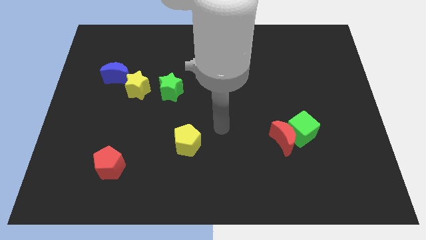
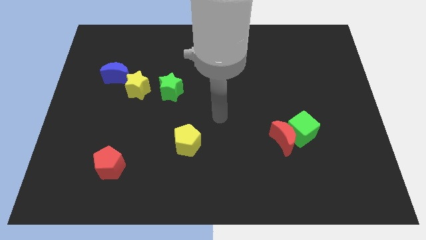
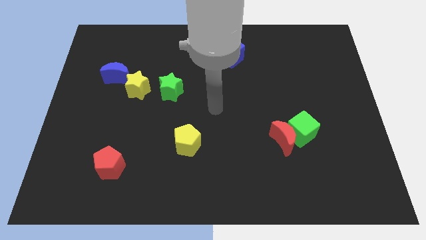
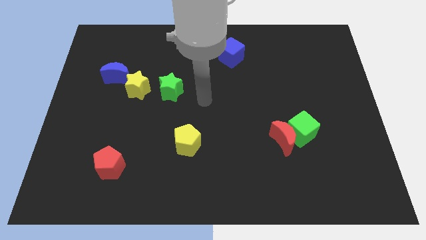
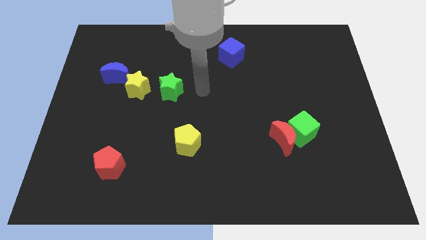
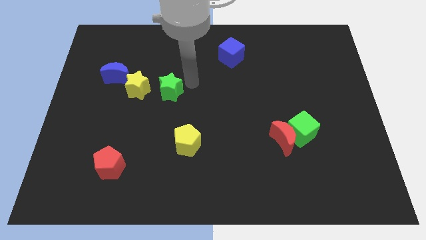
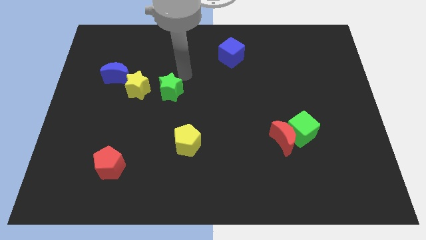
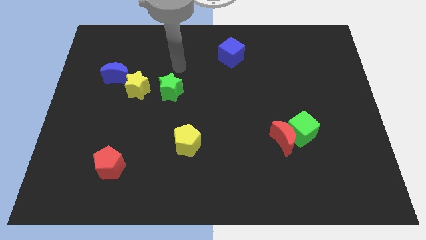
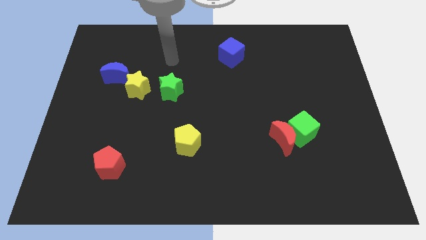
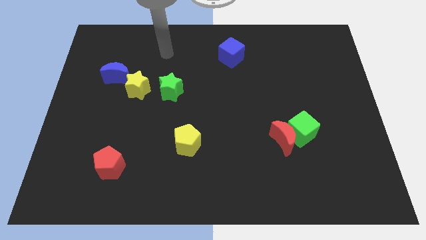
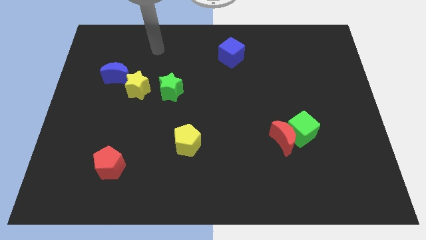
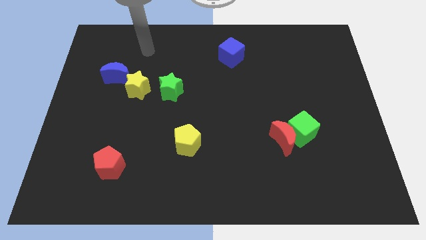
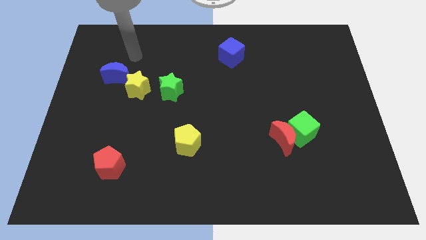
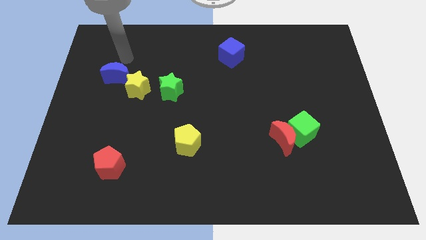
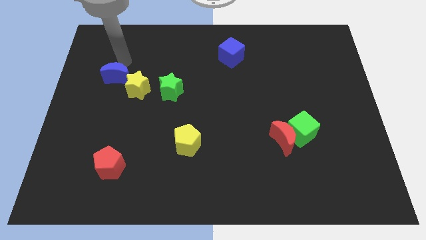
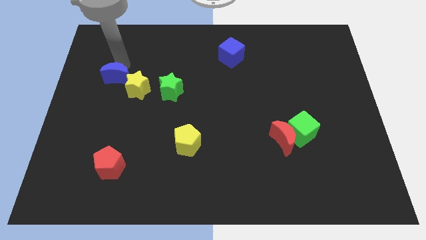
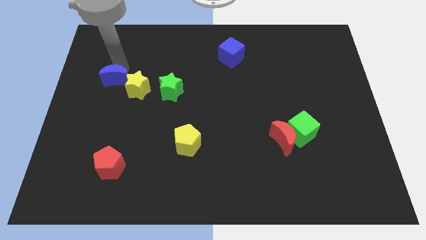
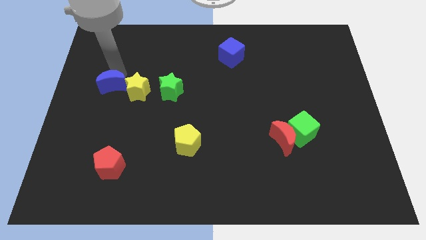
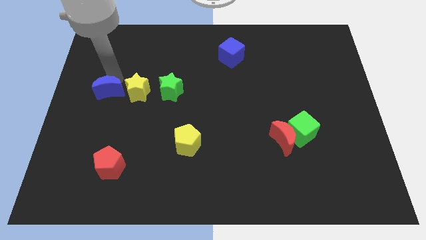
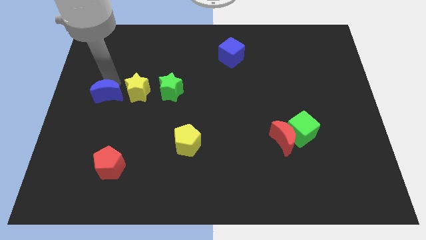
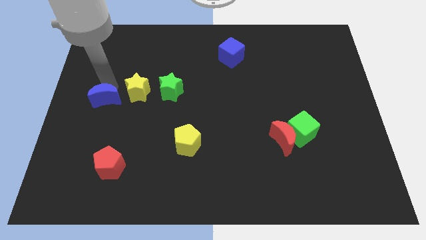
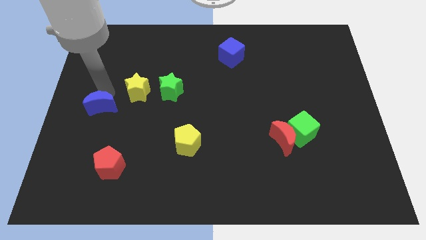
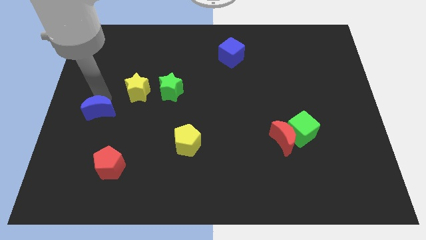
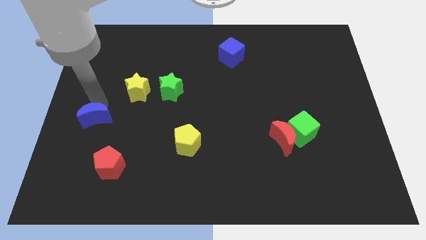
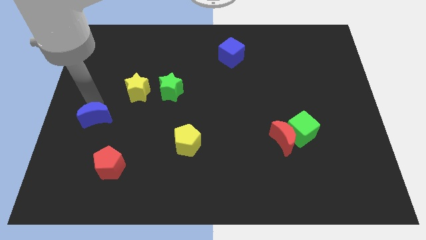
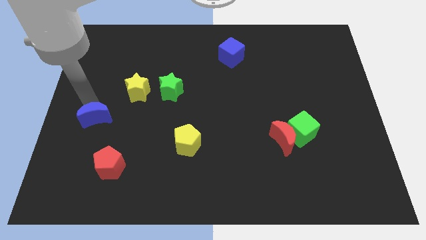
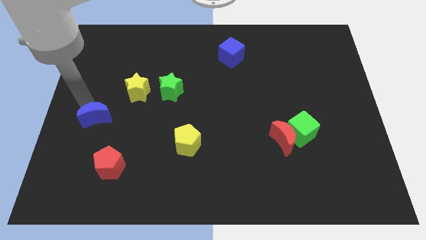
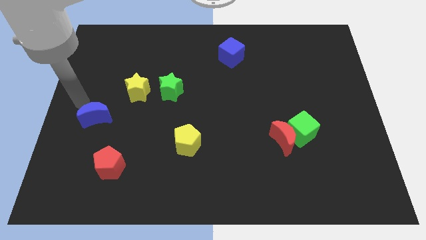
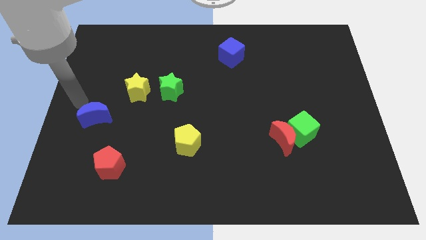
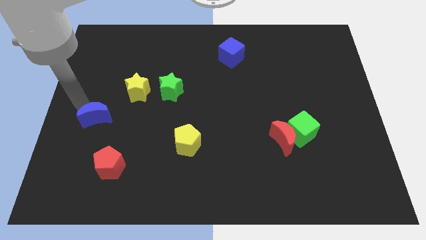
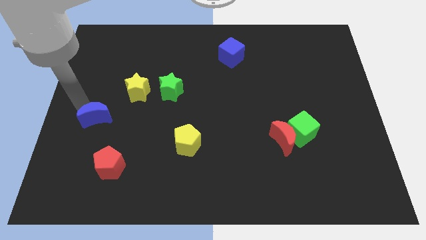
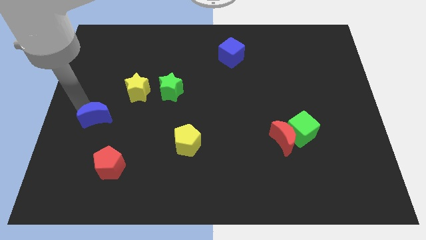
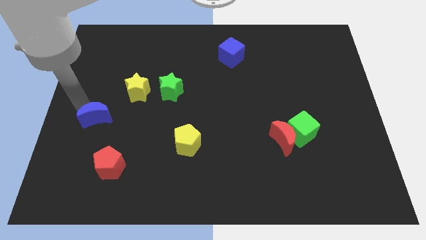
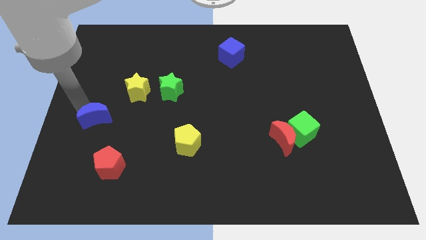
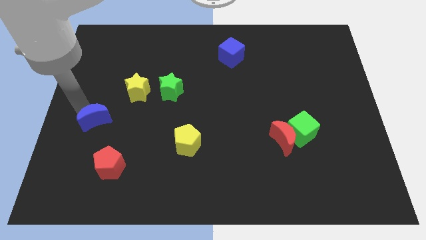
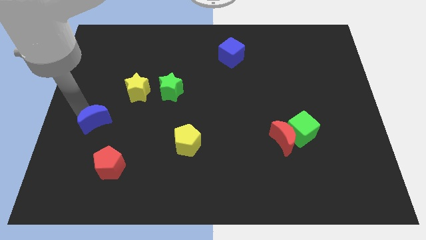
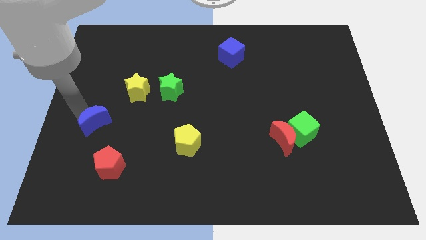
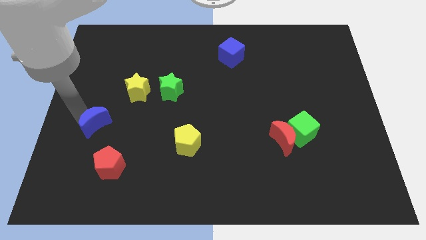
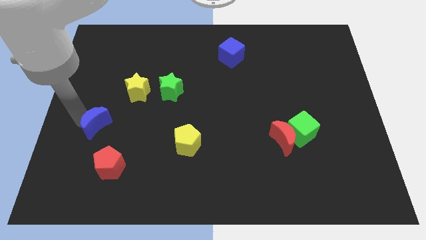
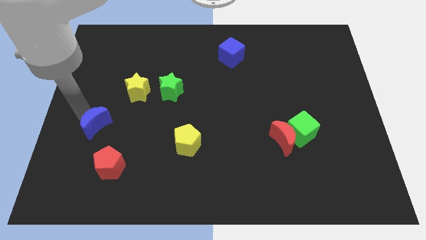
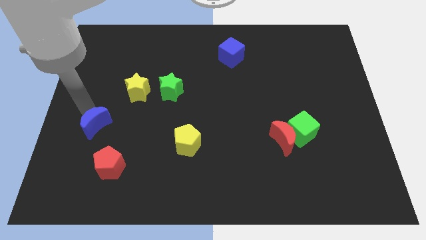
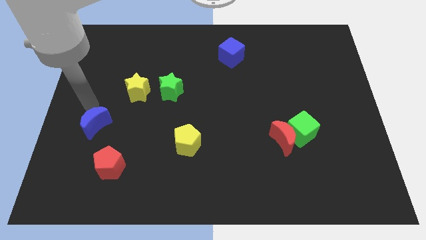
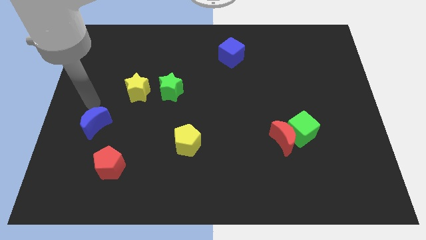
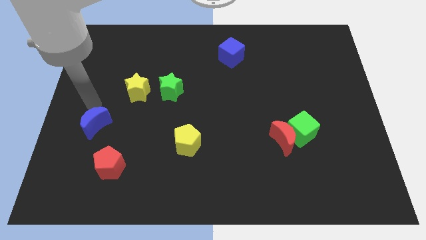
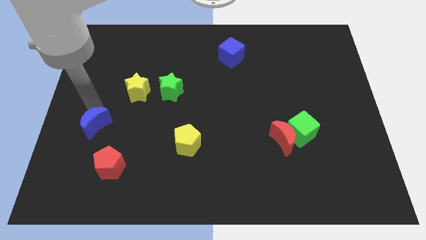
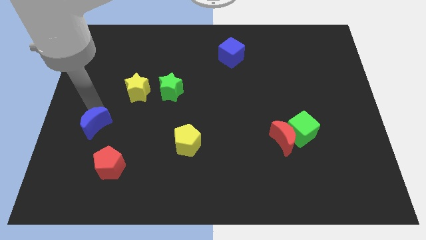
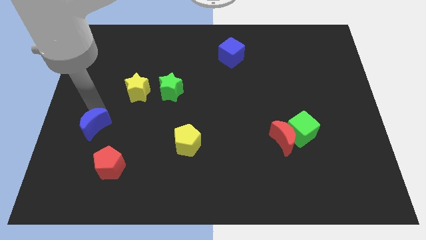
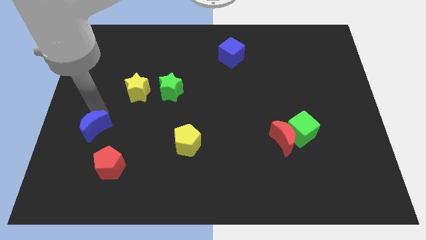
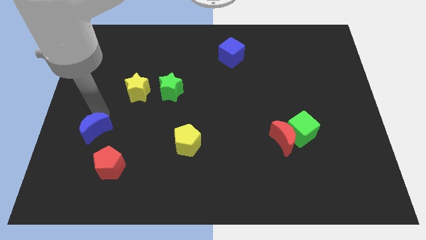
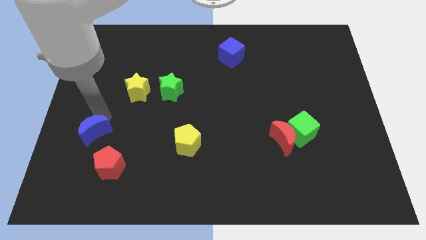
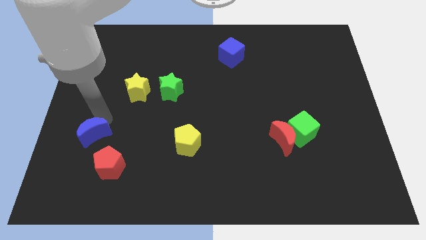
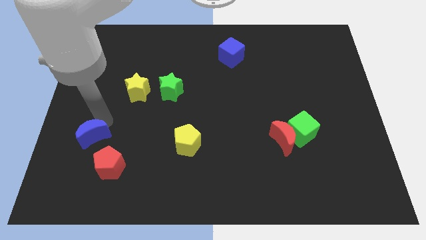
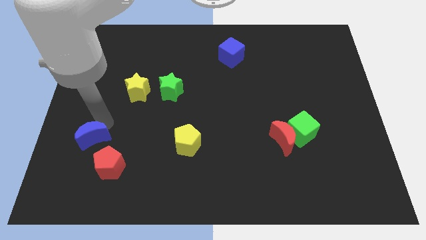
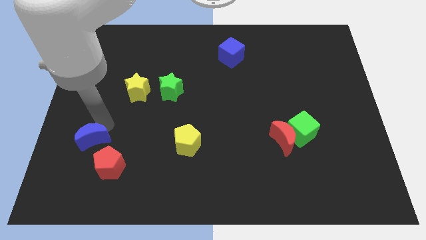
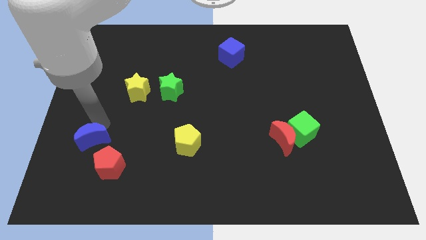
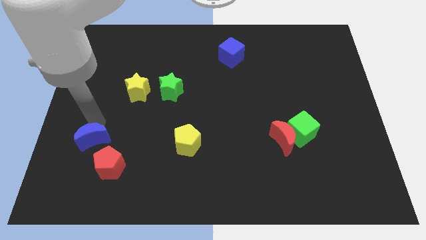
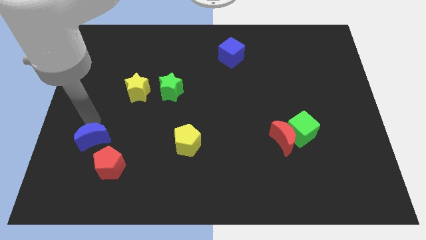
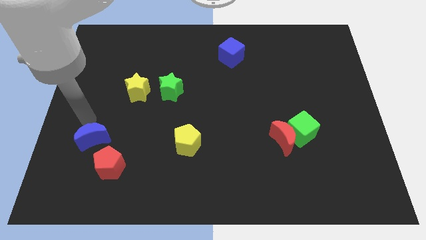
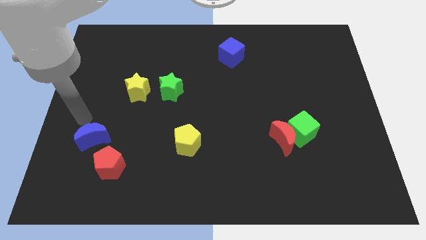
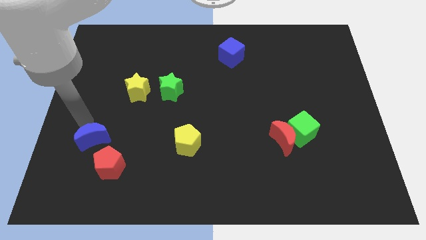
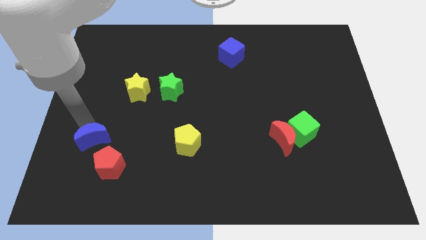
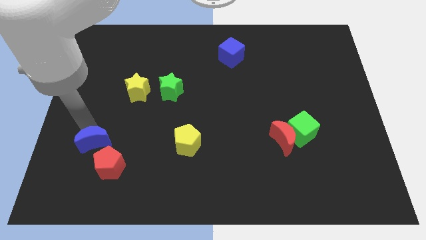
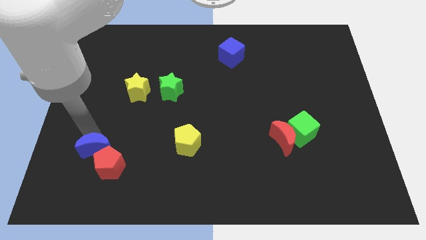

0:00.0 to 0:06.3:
move the blue moon towards the red pentagon

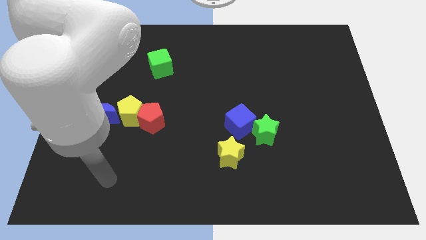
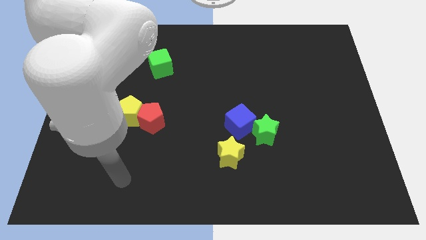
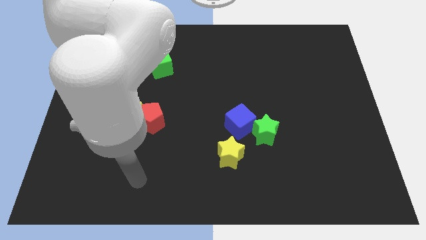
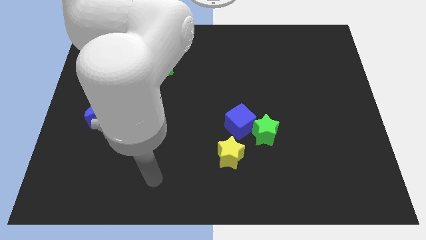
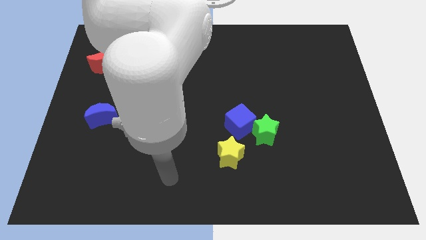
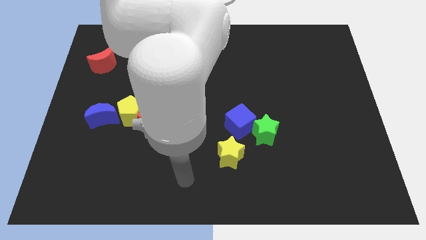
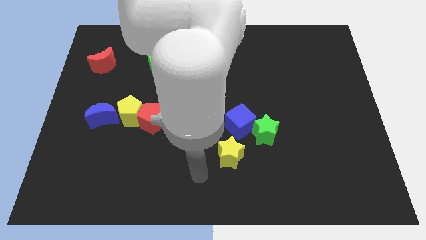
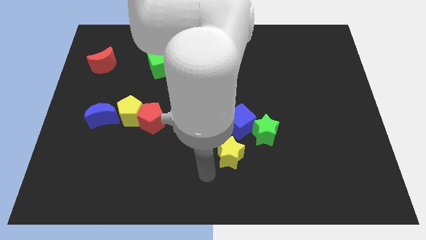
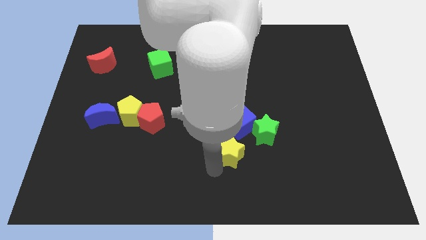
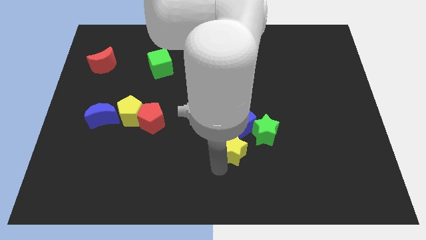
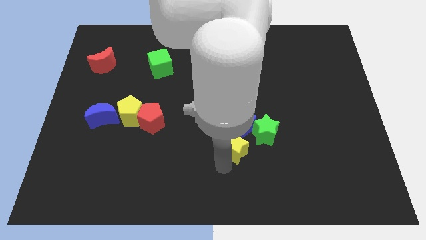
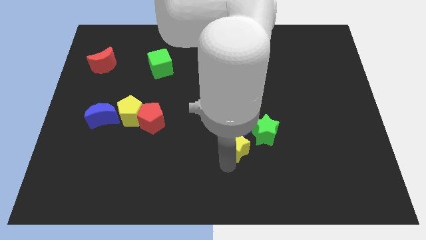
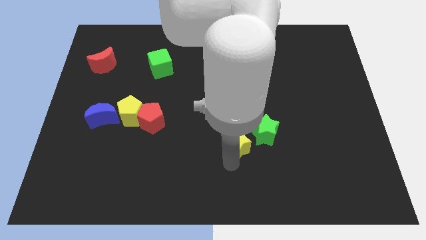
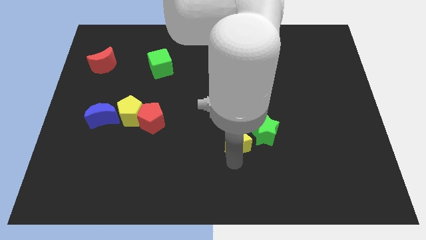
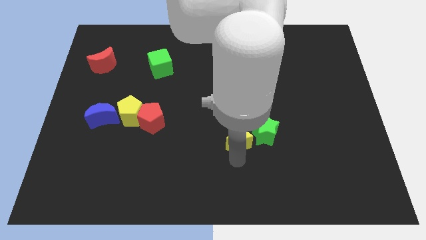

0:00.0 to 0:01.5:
slide the yellow star to the green star
